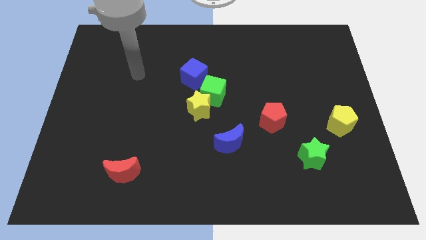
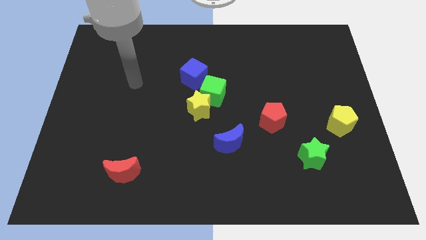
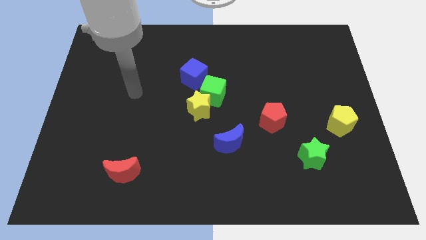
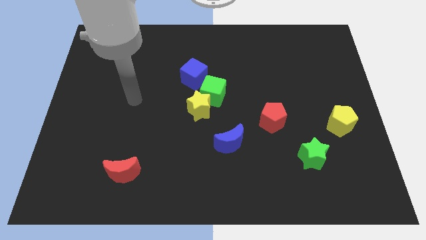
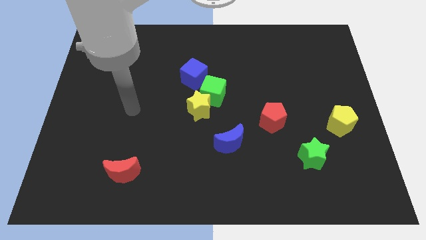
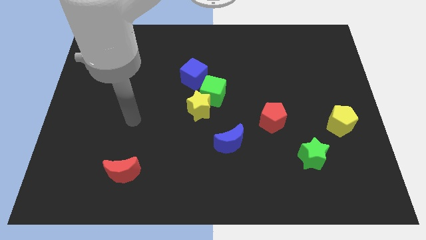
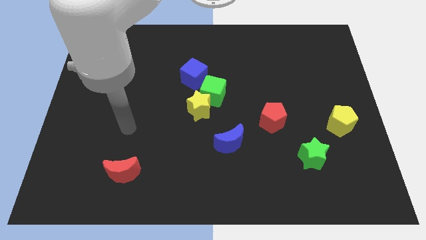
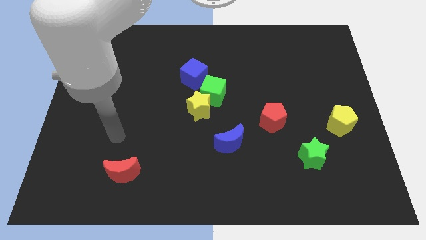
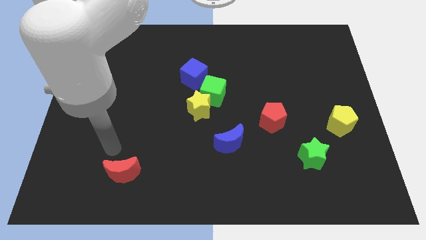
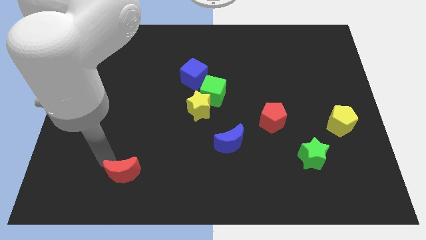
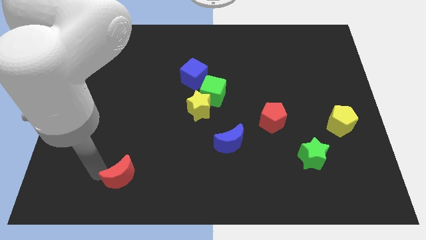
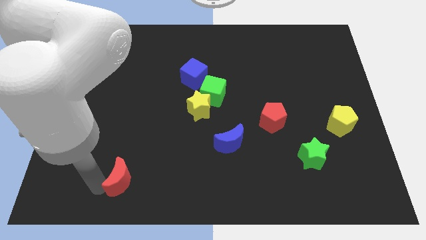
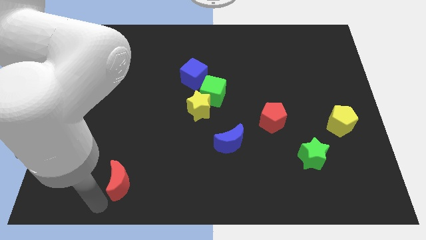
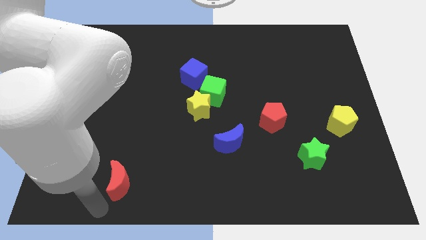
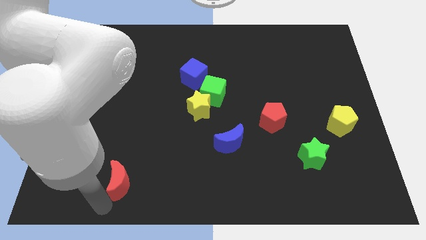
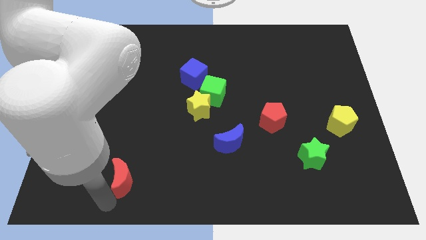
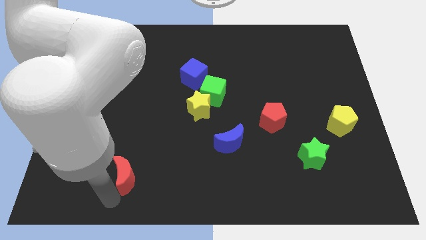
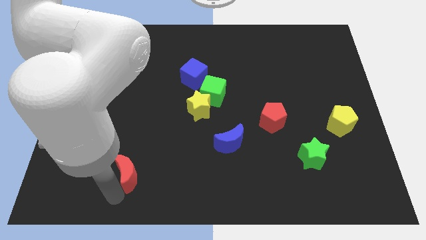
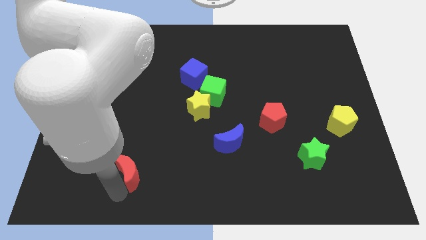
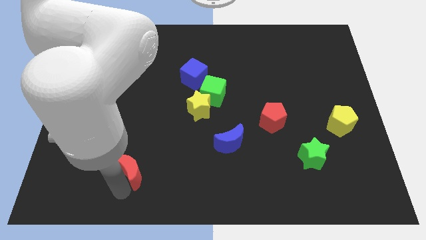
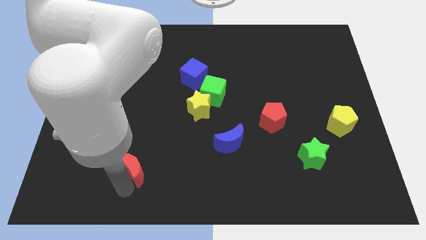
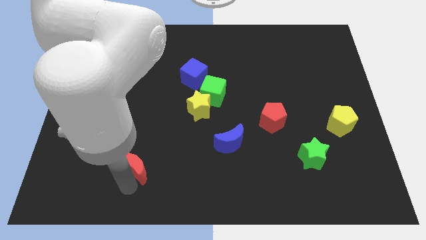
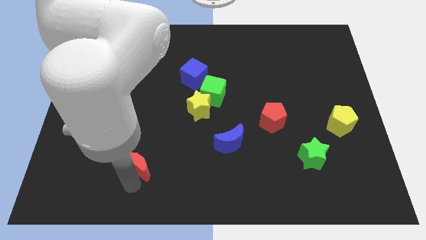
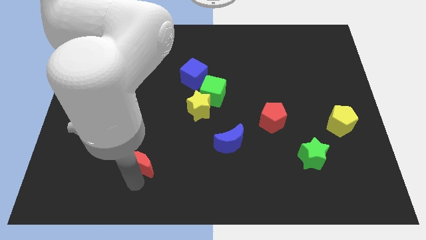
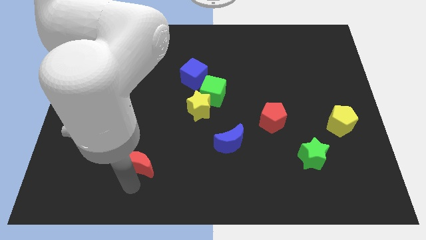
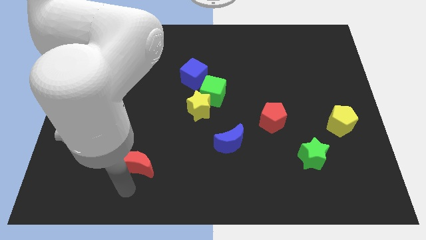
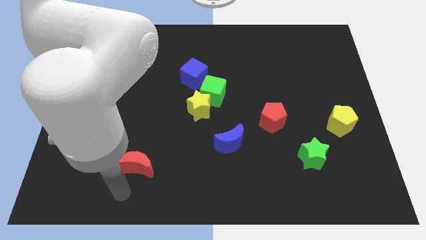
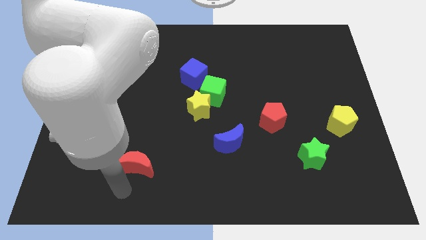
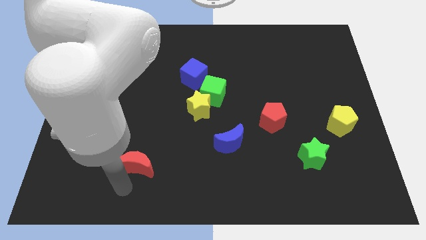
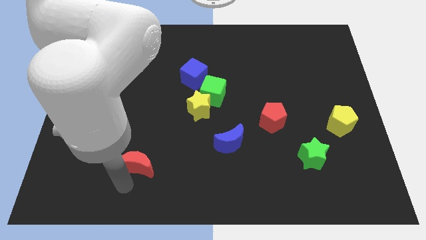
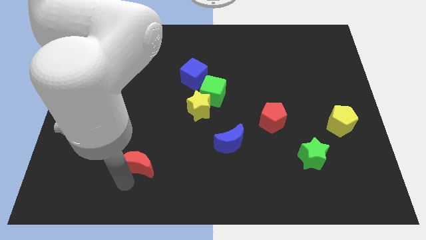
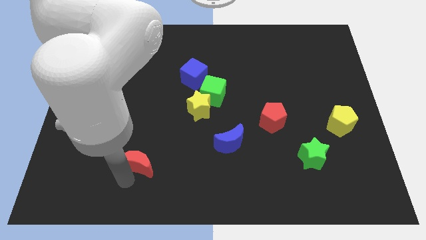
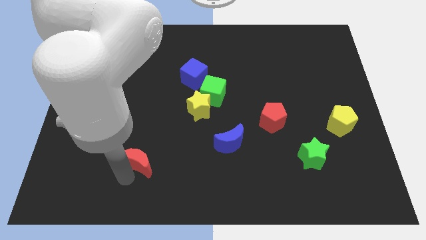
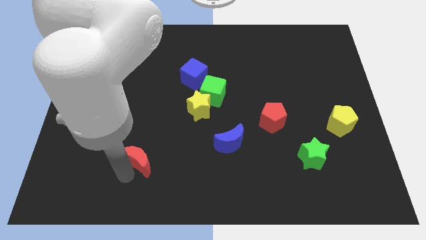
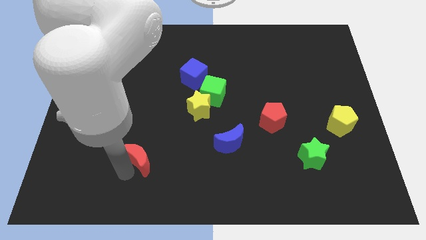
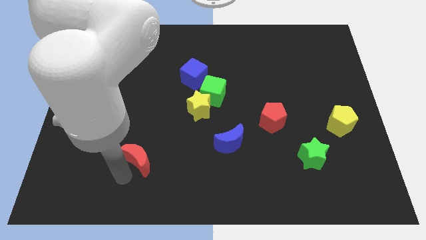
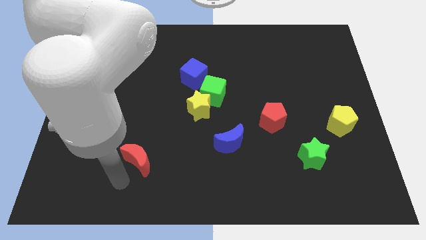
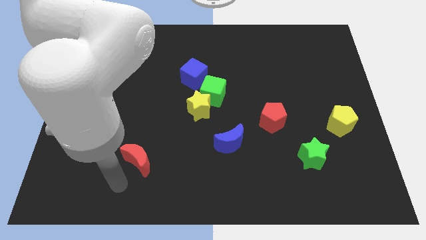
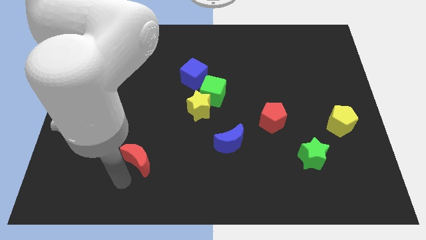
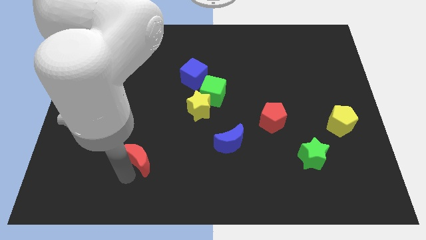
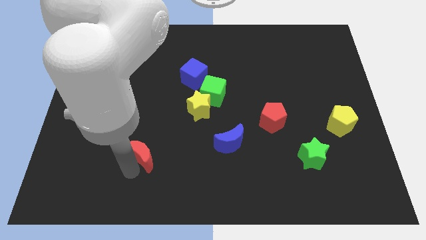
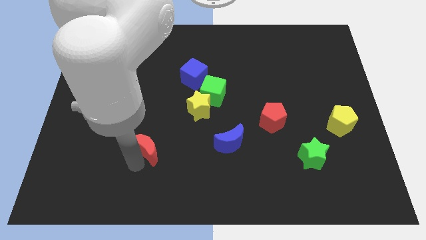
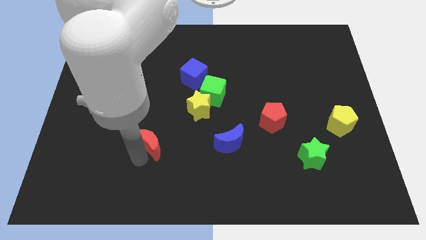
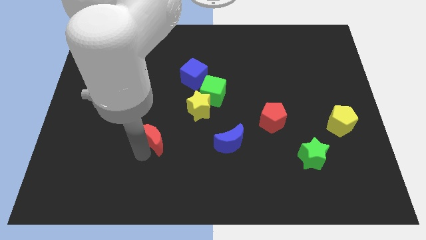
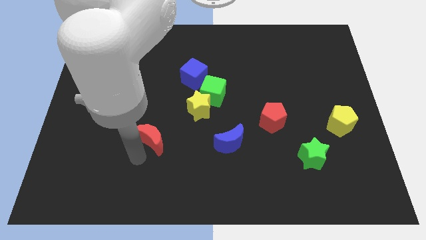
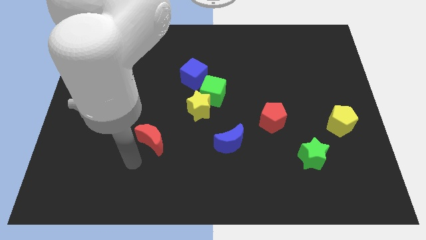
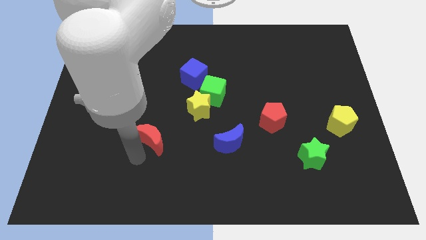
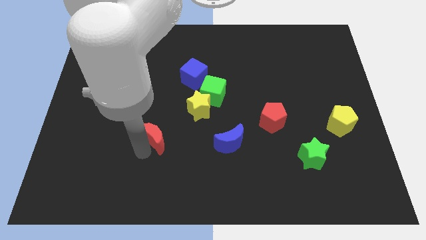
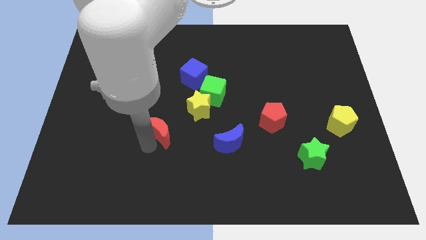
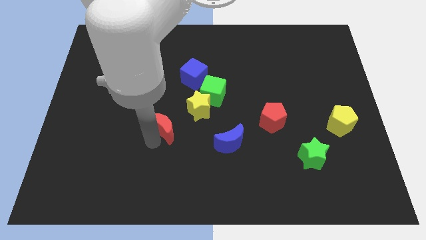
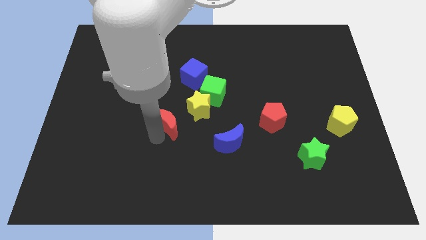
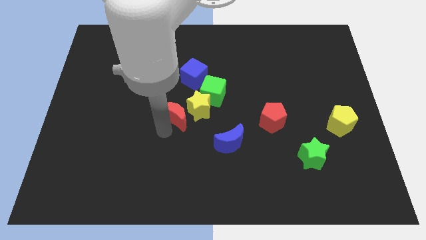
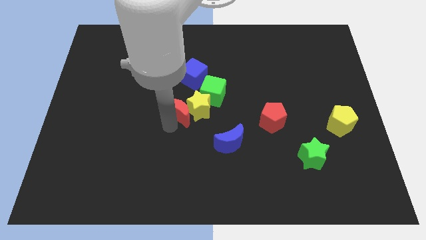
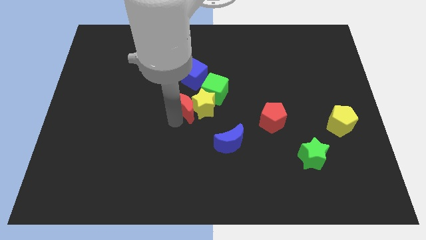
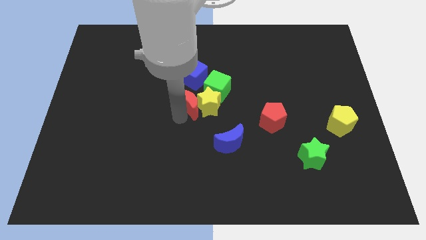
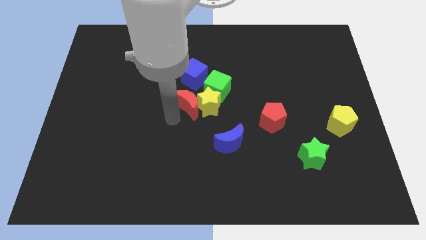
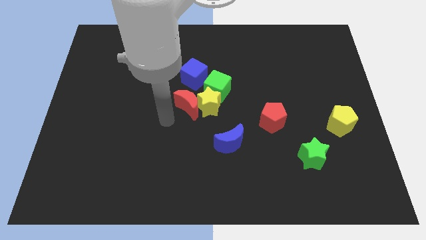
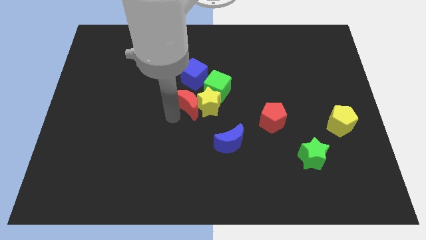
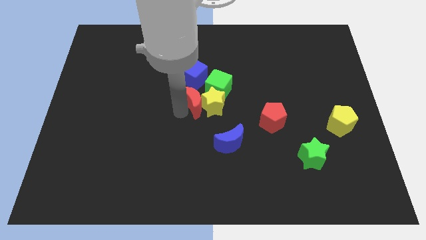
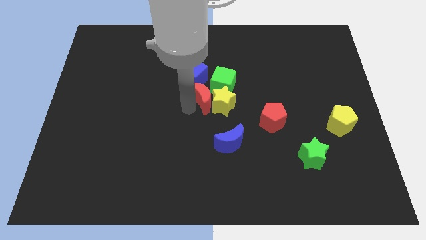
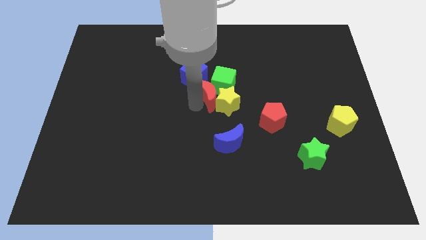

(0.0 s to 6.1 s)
slide the red moon to the green cube
